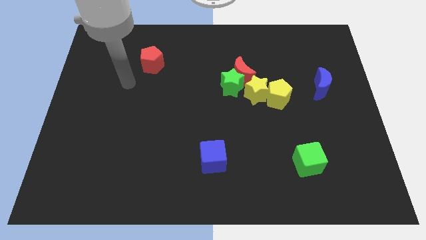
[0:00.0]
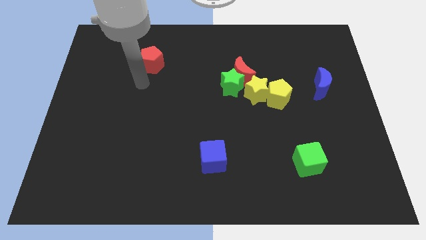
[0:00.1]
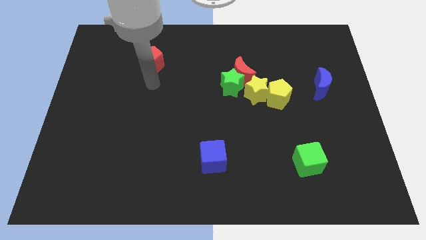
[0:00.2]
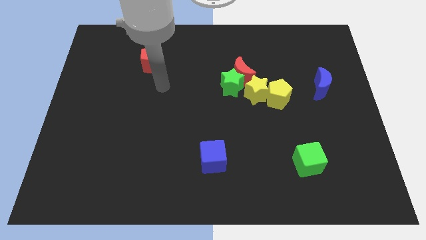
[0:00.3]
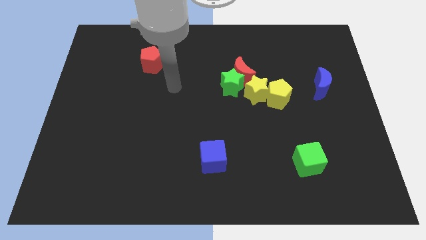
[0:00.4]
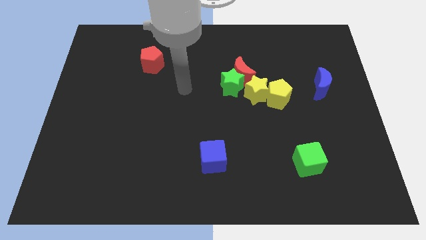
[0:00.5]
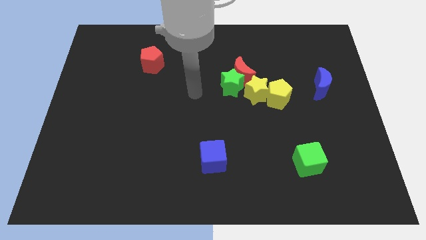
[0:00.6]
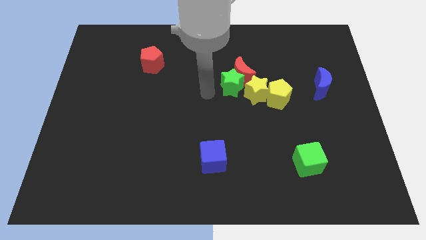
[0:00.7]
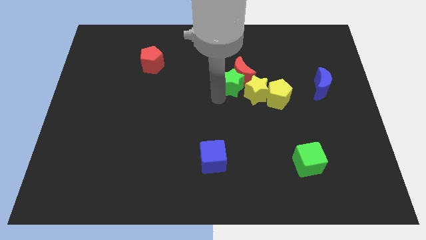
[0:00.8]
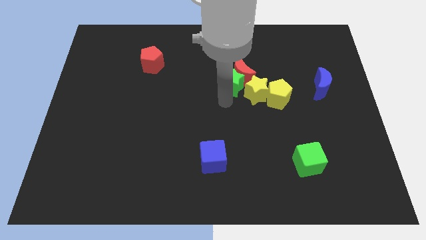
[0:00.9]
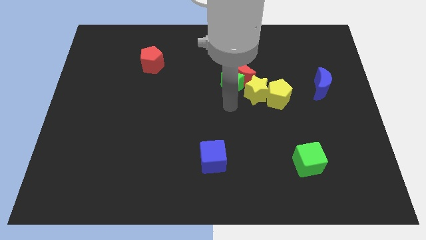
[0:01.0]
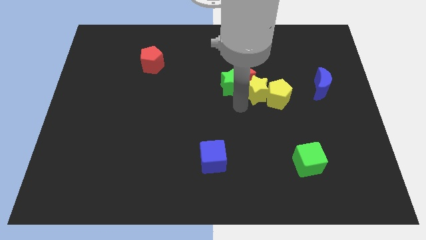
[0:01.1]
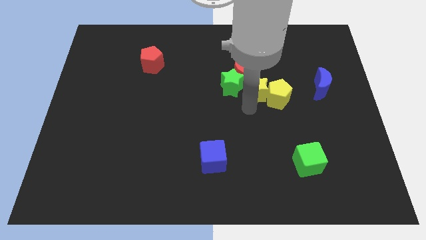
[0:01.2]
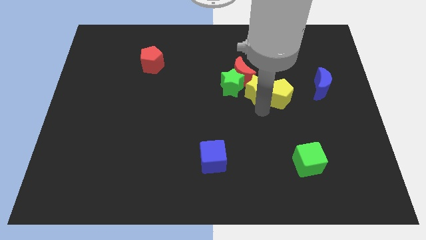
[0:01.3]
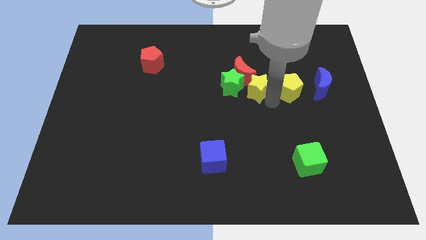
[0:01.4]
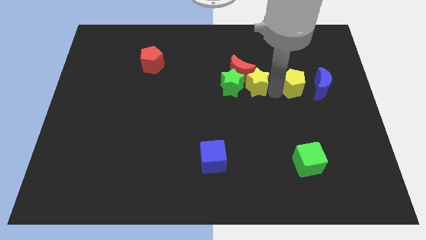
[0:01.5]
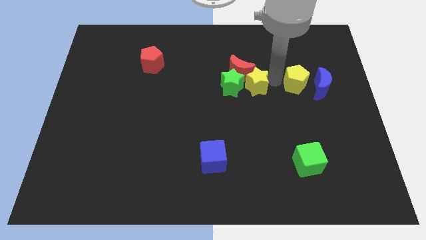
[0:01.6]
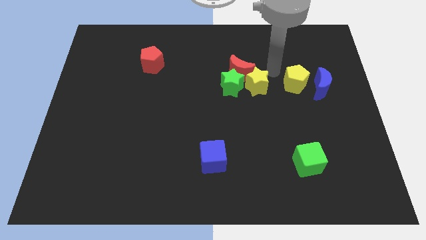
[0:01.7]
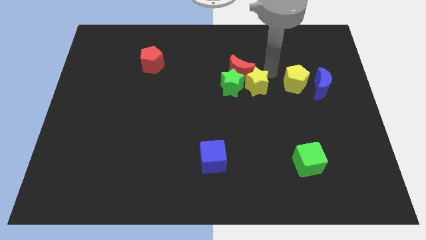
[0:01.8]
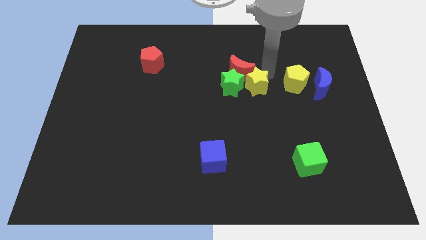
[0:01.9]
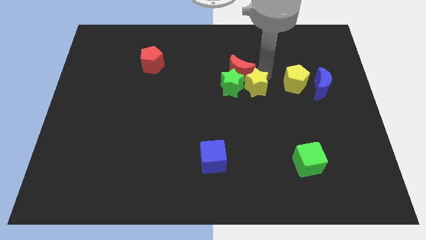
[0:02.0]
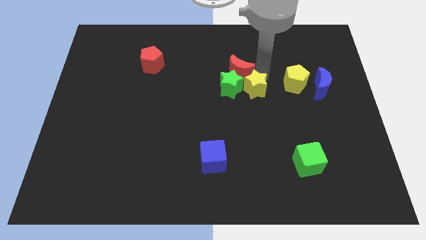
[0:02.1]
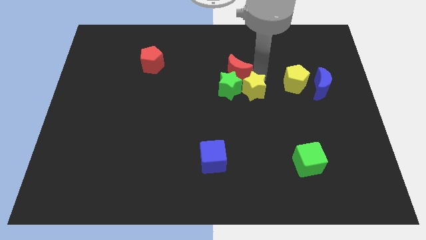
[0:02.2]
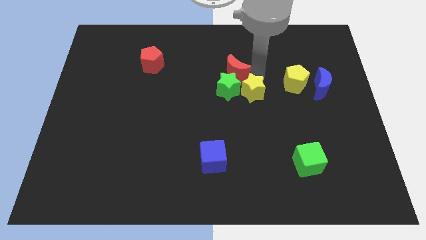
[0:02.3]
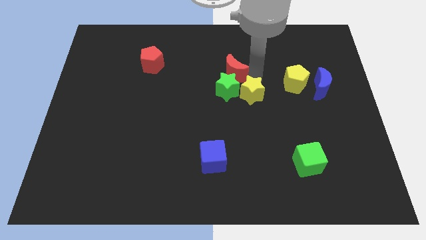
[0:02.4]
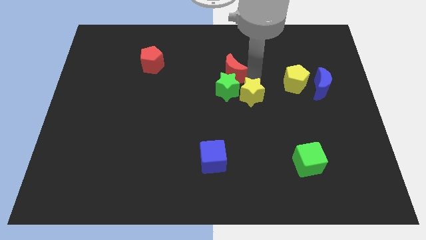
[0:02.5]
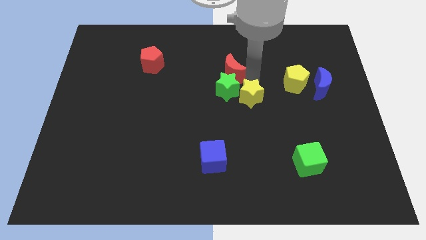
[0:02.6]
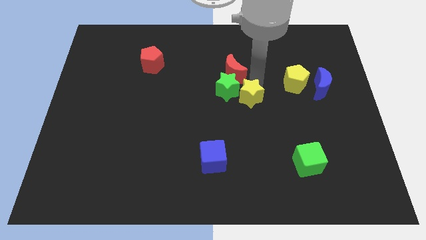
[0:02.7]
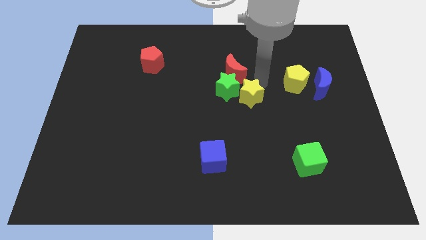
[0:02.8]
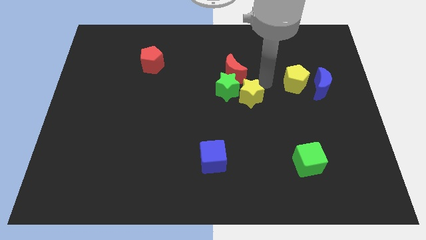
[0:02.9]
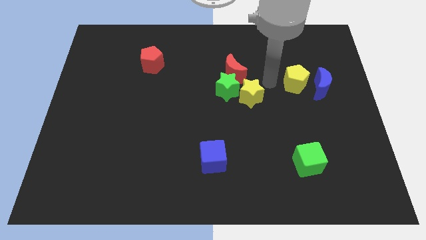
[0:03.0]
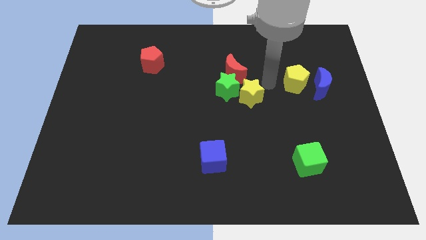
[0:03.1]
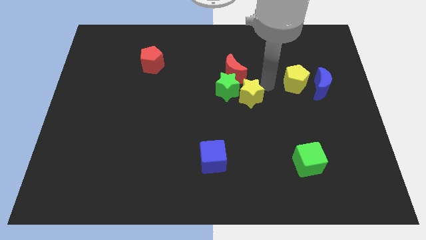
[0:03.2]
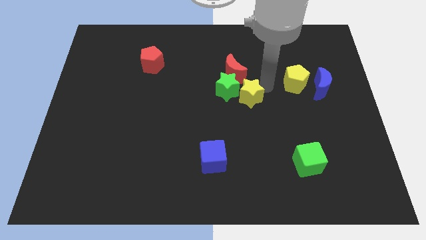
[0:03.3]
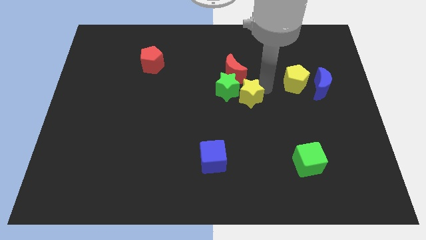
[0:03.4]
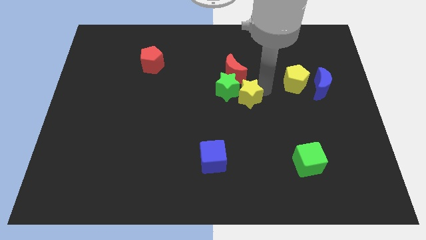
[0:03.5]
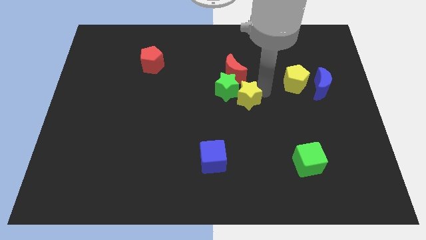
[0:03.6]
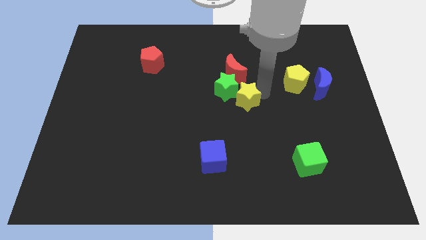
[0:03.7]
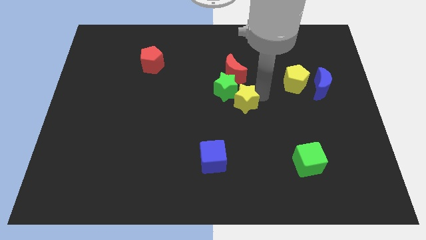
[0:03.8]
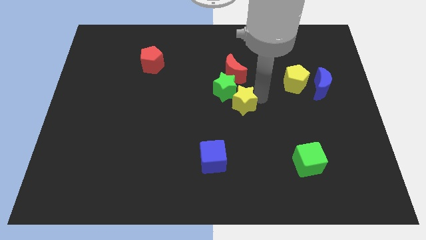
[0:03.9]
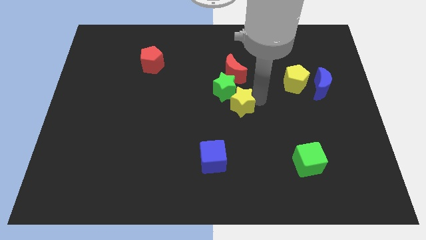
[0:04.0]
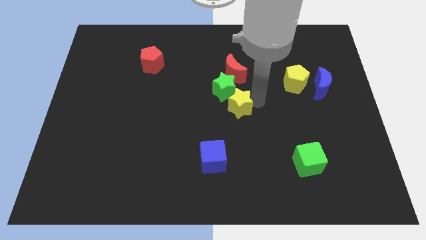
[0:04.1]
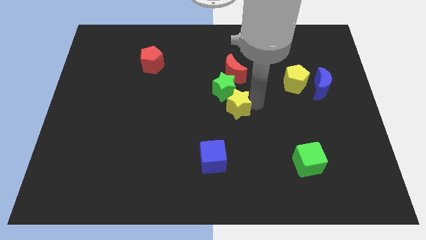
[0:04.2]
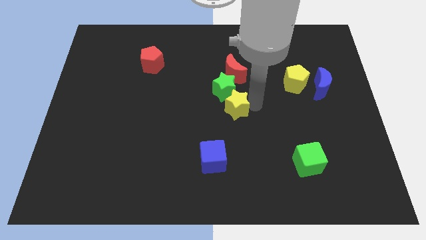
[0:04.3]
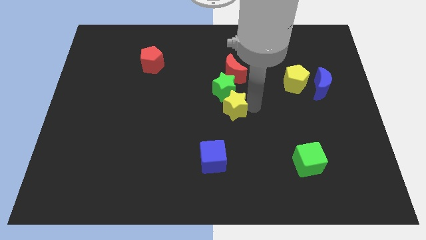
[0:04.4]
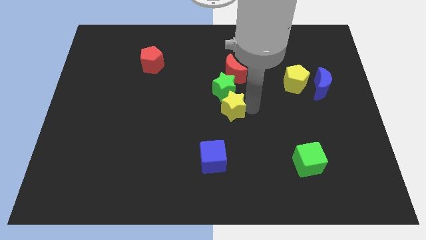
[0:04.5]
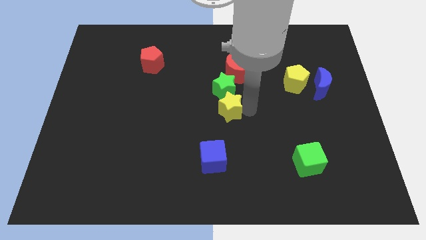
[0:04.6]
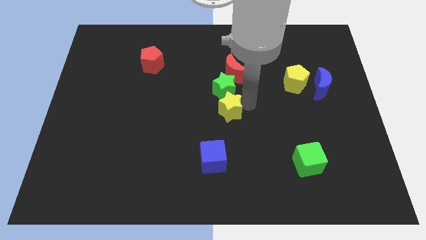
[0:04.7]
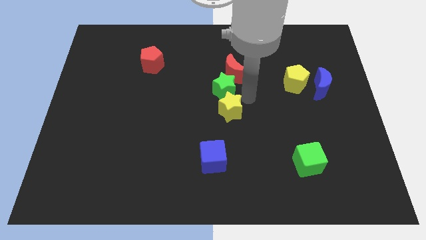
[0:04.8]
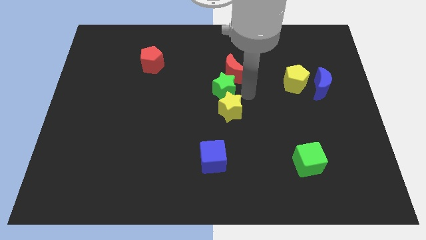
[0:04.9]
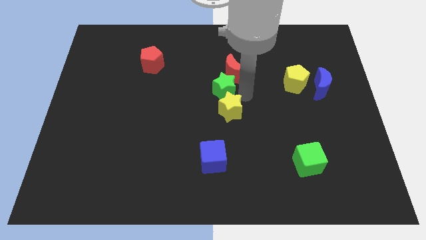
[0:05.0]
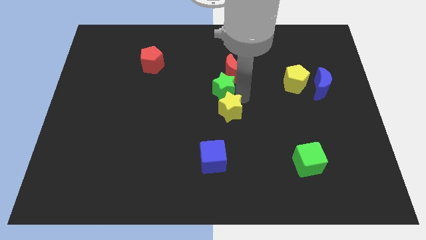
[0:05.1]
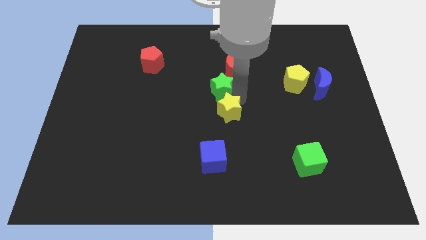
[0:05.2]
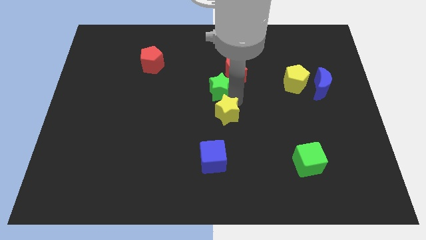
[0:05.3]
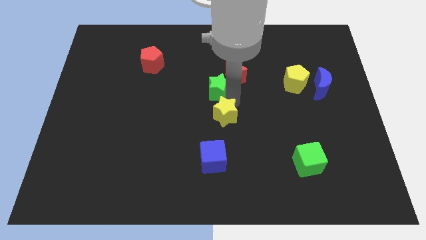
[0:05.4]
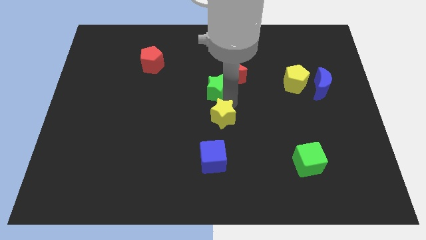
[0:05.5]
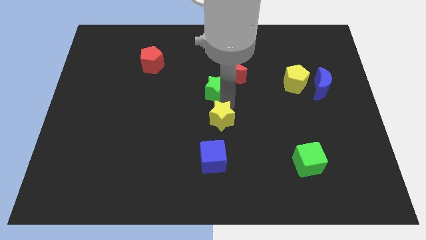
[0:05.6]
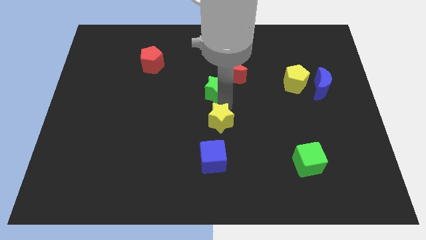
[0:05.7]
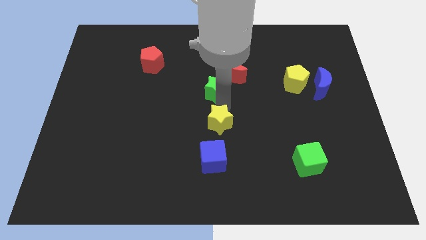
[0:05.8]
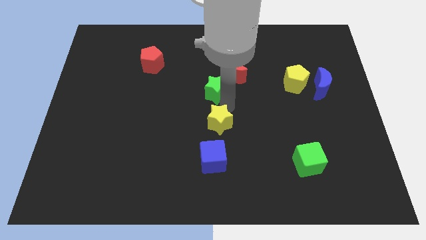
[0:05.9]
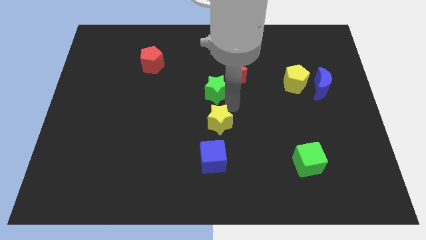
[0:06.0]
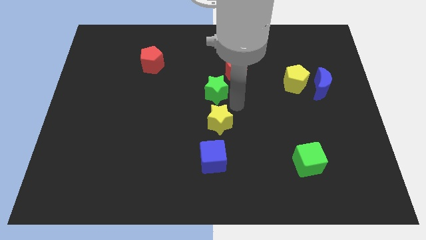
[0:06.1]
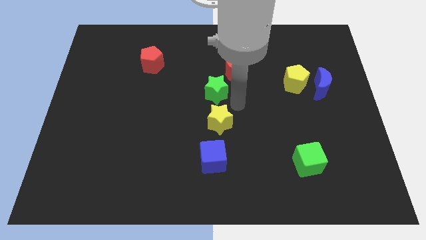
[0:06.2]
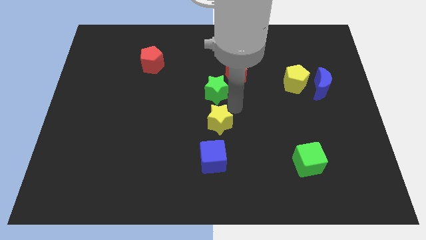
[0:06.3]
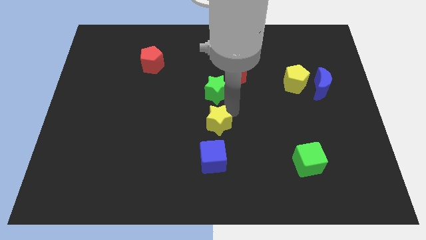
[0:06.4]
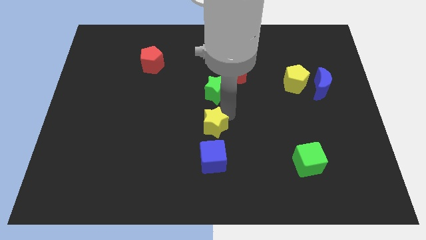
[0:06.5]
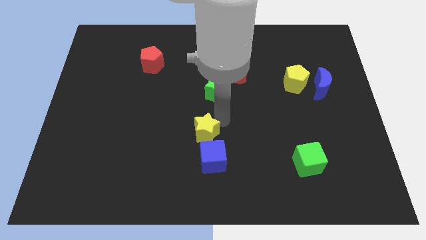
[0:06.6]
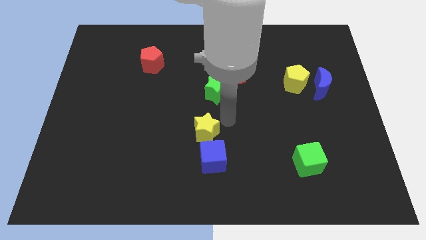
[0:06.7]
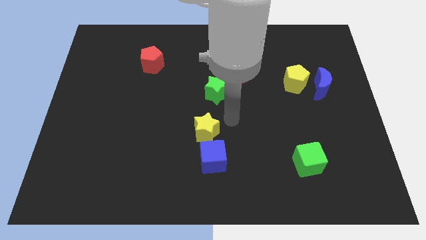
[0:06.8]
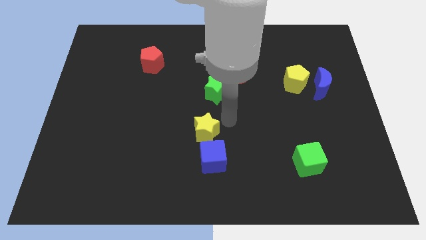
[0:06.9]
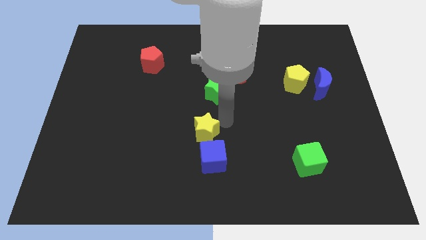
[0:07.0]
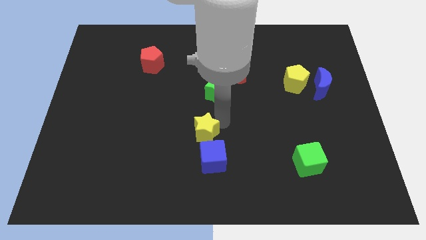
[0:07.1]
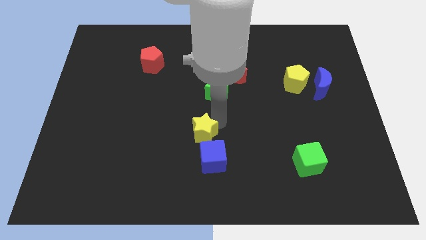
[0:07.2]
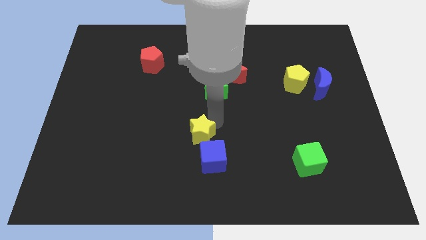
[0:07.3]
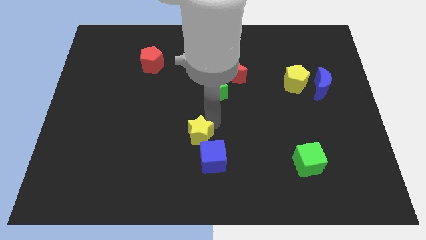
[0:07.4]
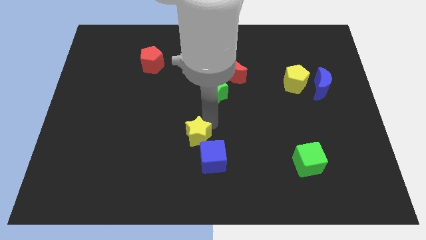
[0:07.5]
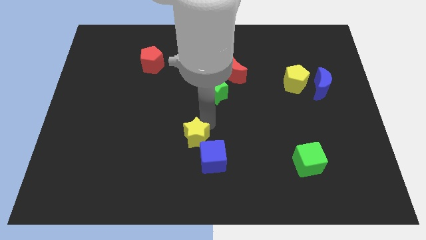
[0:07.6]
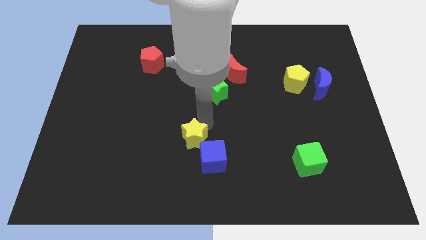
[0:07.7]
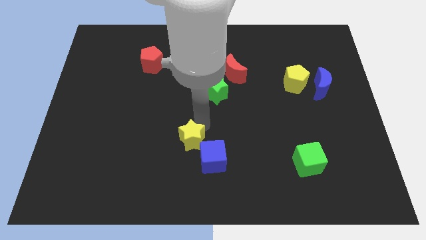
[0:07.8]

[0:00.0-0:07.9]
slide the yellow star downwards and to the left
